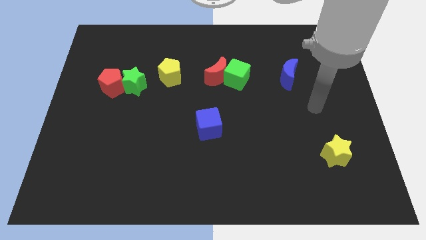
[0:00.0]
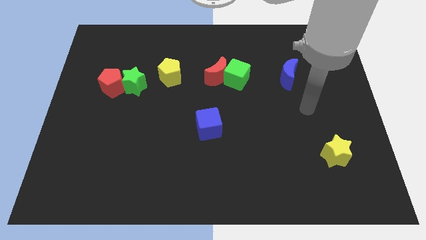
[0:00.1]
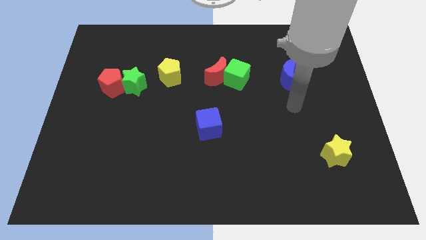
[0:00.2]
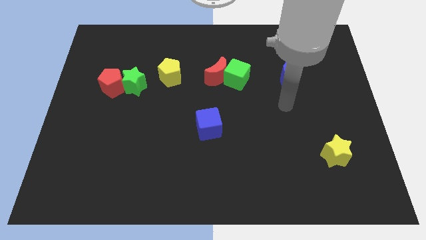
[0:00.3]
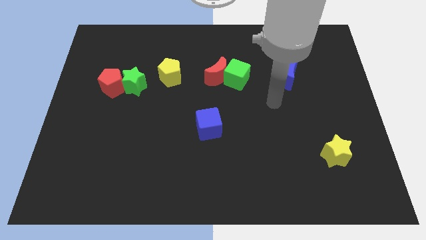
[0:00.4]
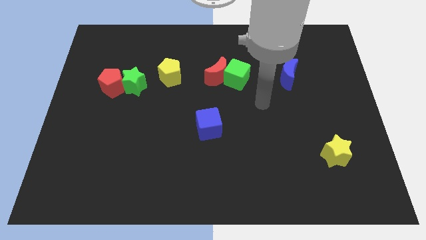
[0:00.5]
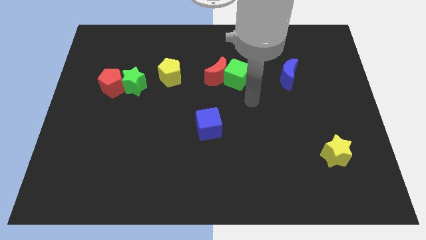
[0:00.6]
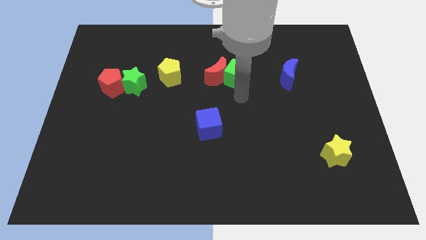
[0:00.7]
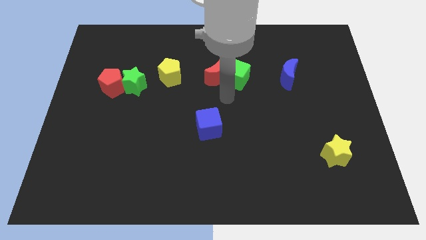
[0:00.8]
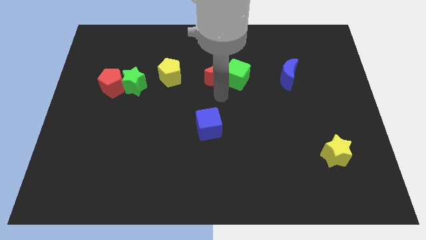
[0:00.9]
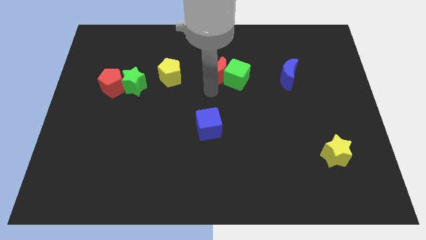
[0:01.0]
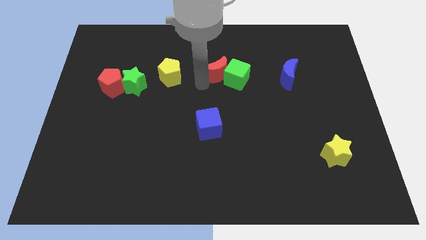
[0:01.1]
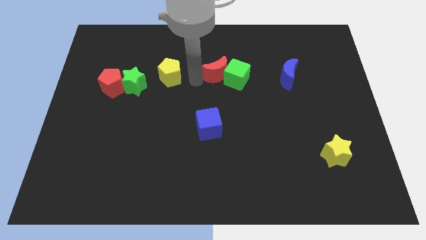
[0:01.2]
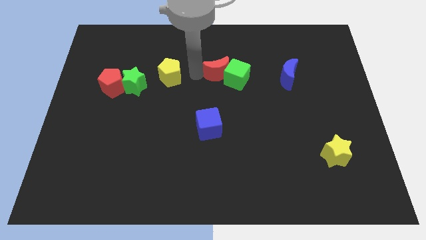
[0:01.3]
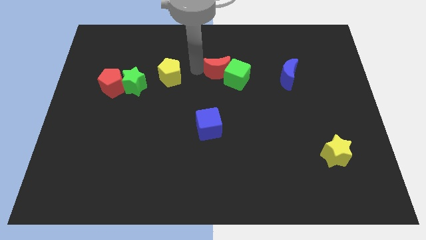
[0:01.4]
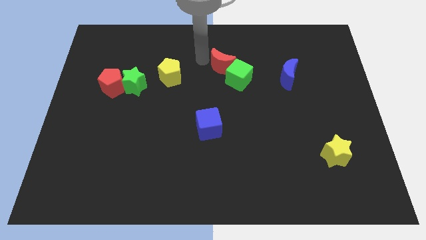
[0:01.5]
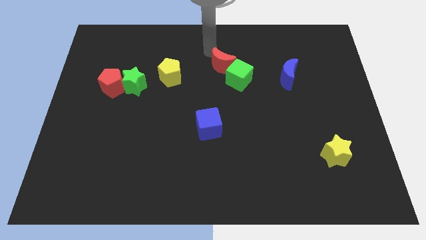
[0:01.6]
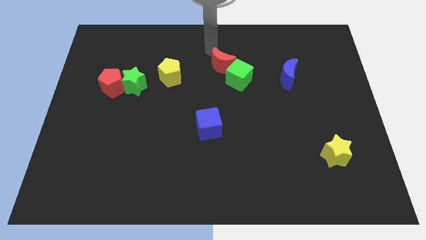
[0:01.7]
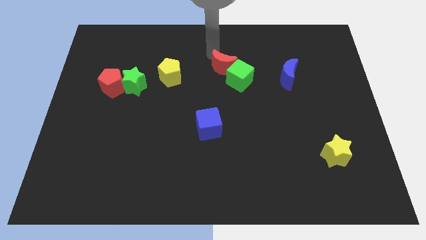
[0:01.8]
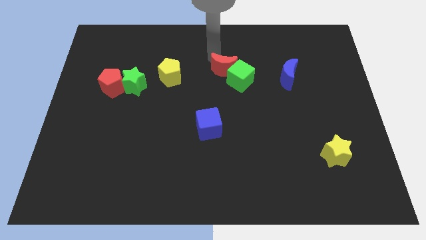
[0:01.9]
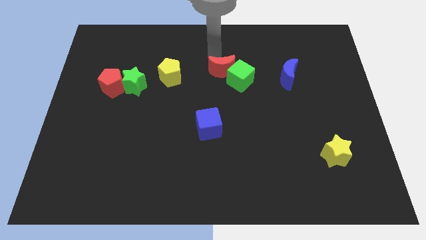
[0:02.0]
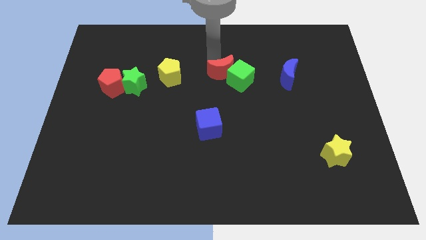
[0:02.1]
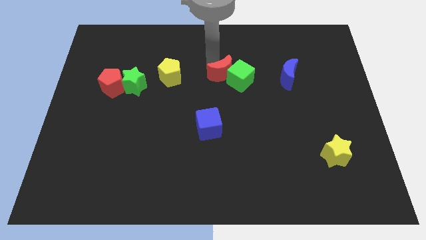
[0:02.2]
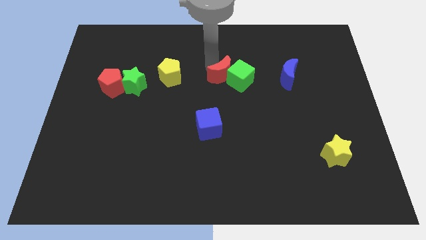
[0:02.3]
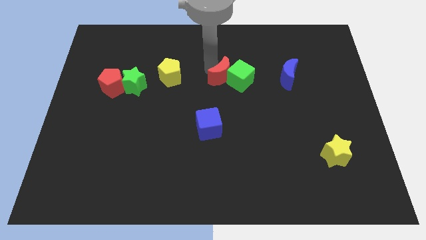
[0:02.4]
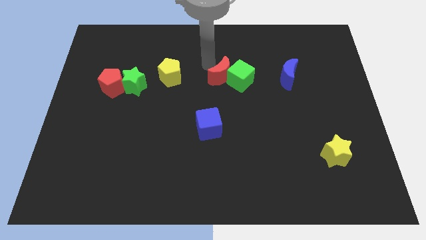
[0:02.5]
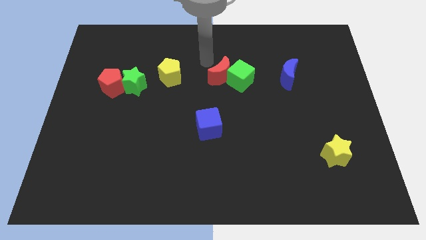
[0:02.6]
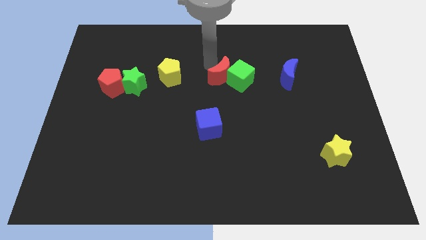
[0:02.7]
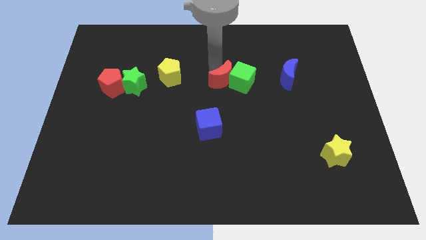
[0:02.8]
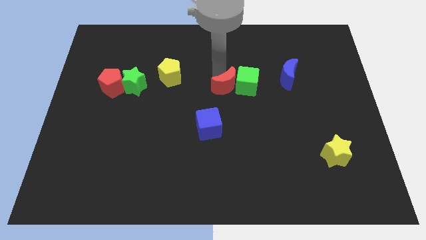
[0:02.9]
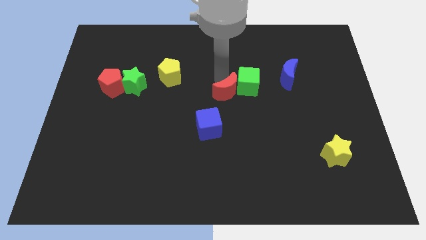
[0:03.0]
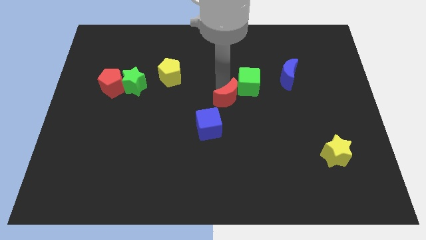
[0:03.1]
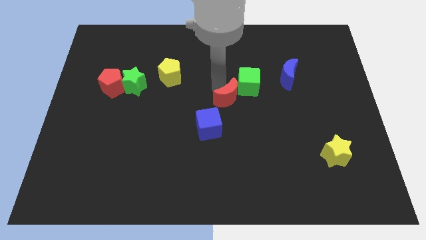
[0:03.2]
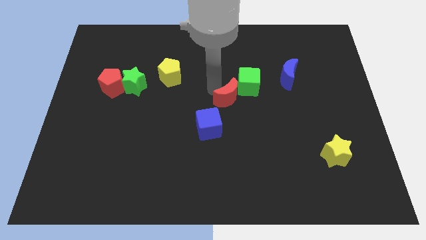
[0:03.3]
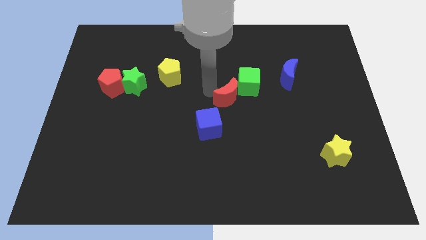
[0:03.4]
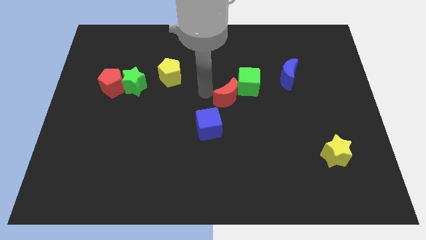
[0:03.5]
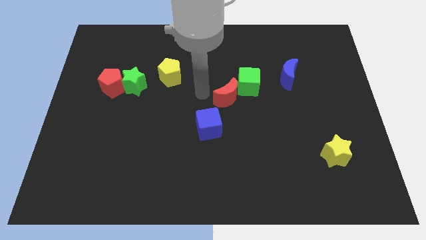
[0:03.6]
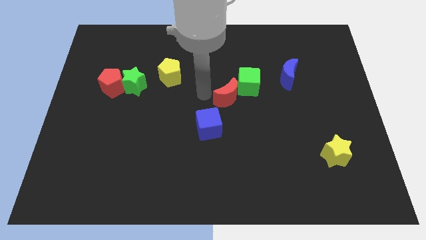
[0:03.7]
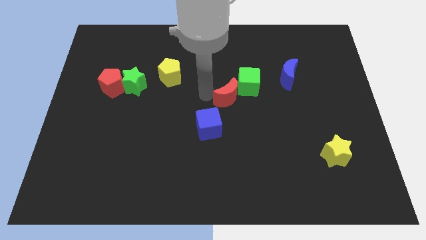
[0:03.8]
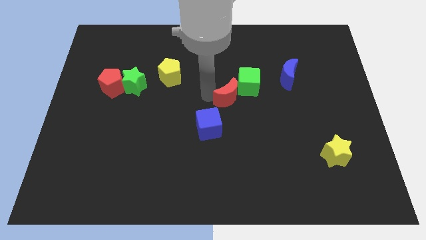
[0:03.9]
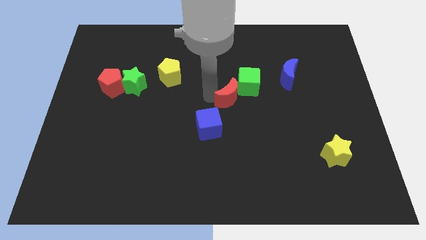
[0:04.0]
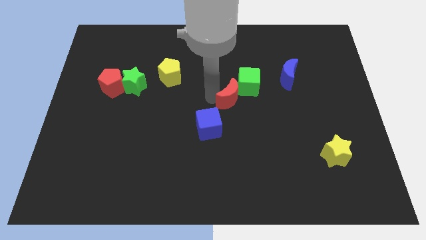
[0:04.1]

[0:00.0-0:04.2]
slide the red moon down and then to the right somewhat

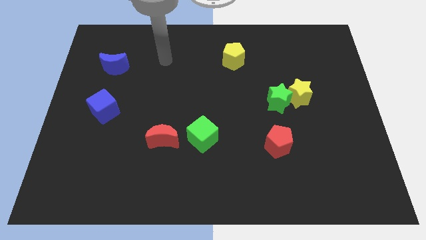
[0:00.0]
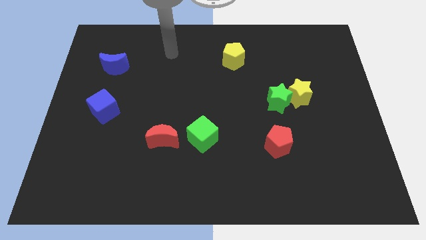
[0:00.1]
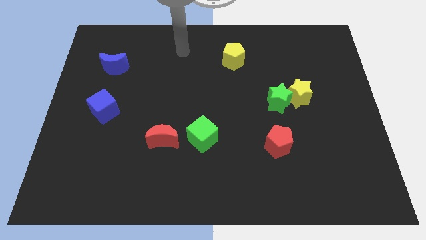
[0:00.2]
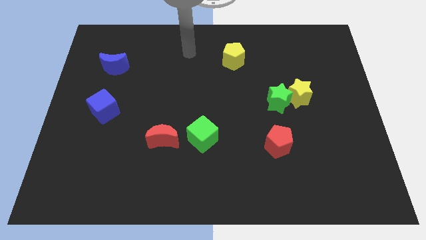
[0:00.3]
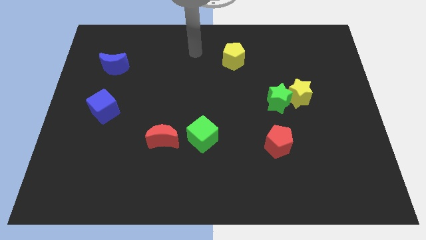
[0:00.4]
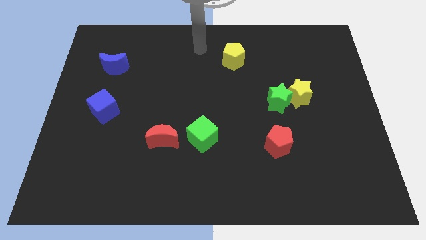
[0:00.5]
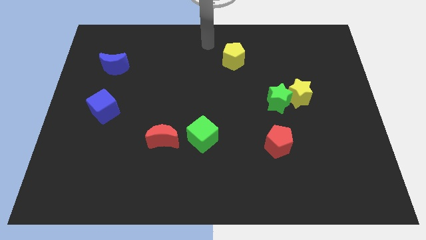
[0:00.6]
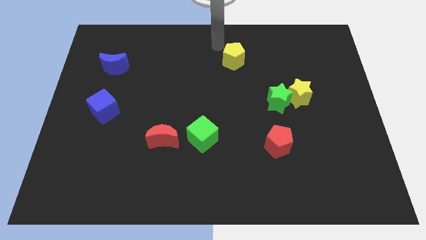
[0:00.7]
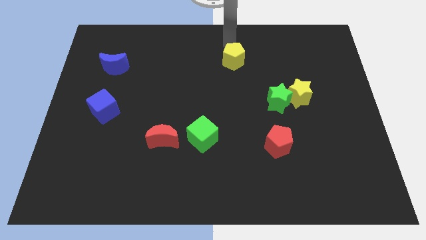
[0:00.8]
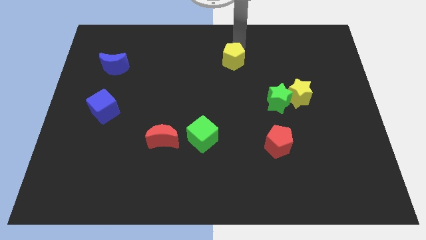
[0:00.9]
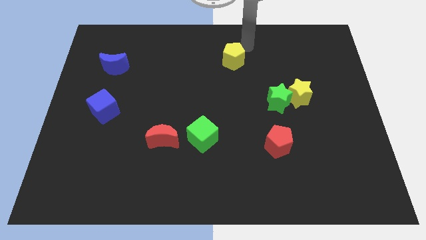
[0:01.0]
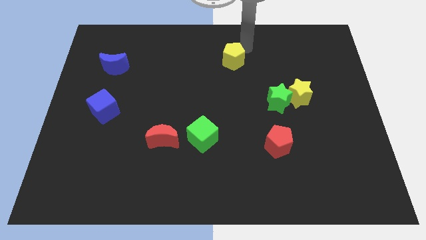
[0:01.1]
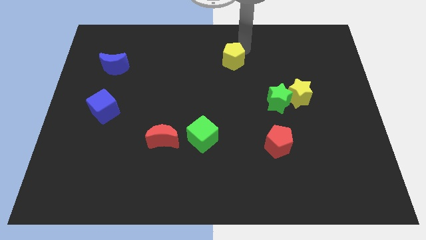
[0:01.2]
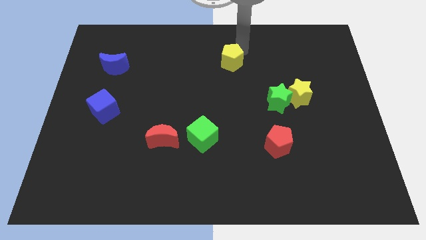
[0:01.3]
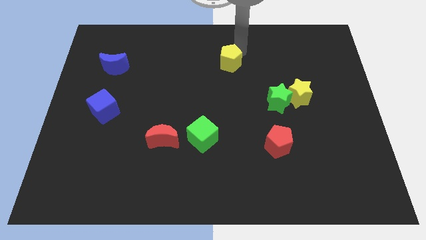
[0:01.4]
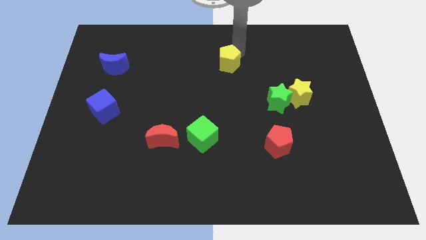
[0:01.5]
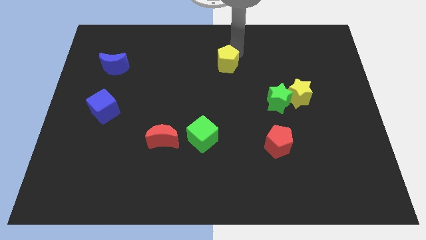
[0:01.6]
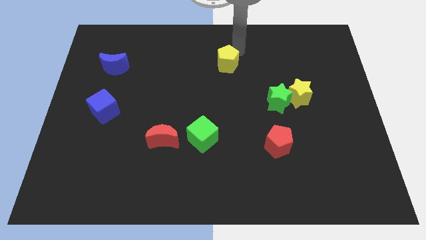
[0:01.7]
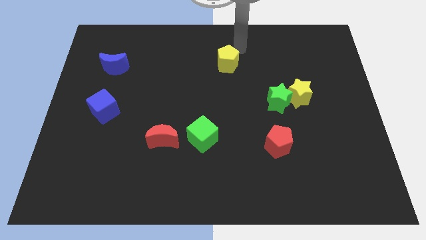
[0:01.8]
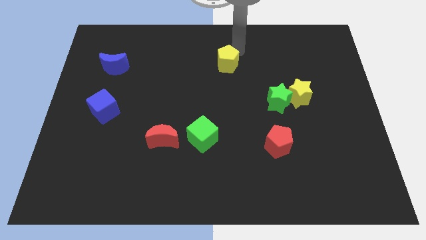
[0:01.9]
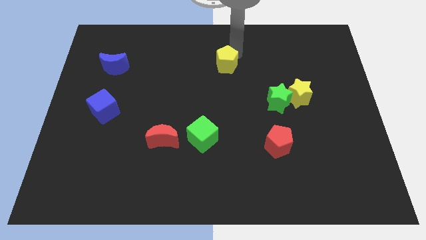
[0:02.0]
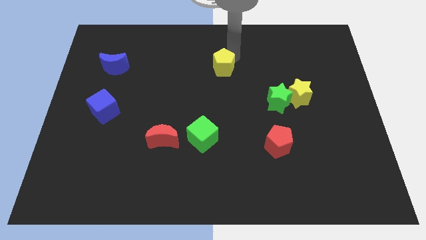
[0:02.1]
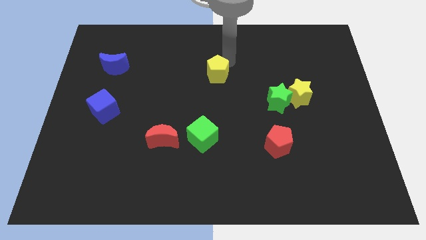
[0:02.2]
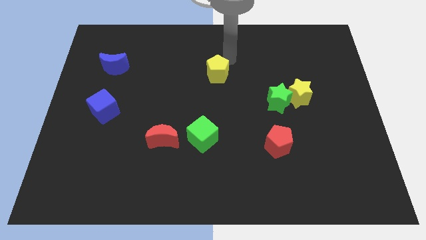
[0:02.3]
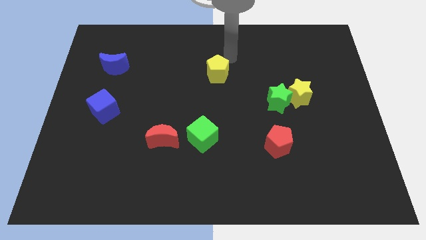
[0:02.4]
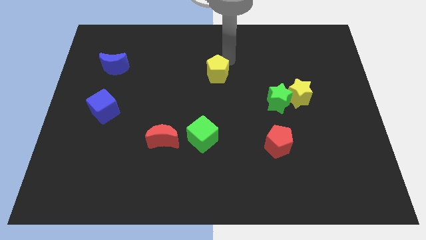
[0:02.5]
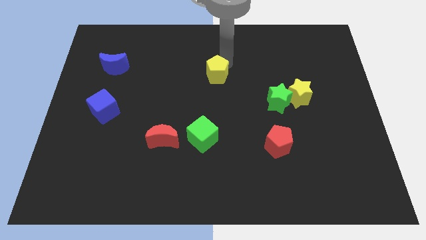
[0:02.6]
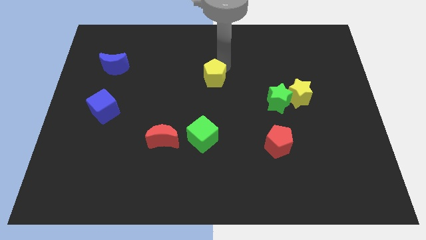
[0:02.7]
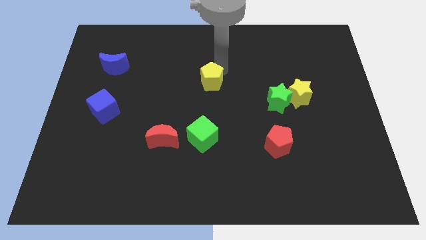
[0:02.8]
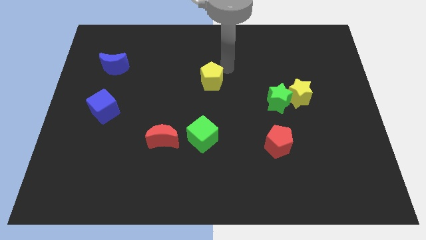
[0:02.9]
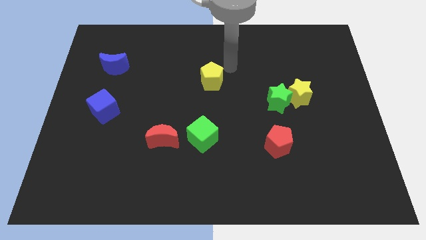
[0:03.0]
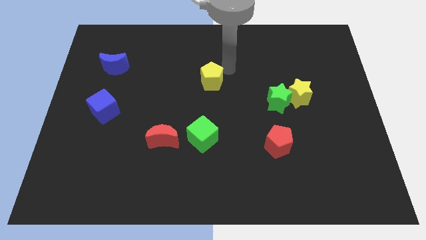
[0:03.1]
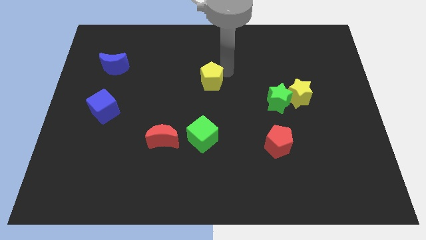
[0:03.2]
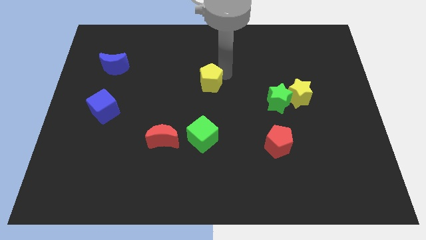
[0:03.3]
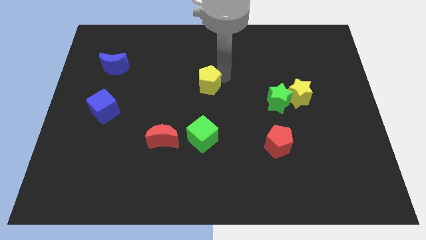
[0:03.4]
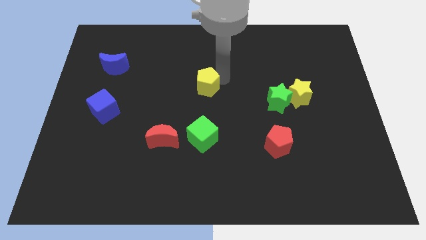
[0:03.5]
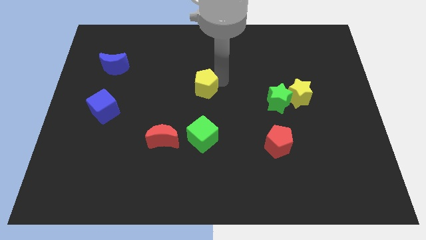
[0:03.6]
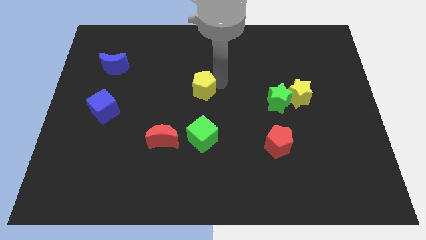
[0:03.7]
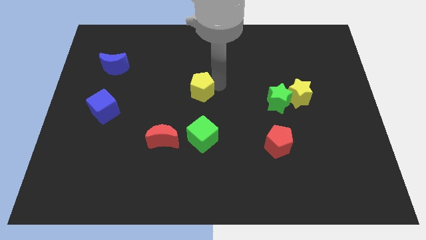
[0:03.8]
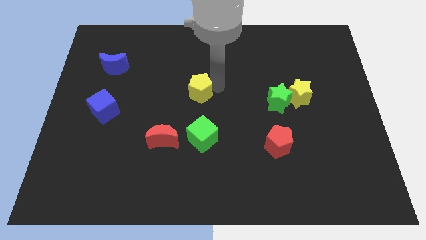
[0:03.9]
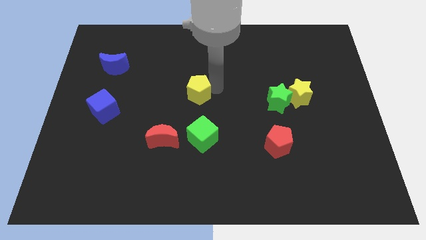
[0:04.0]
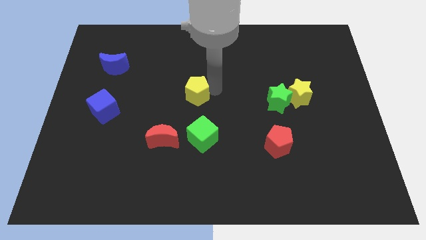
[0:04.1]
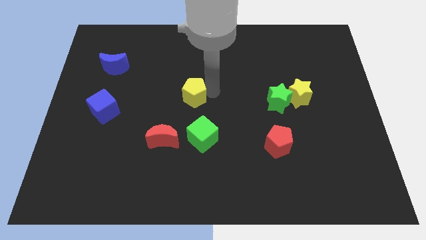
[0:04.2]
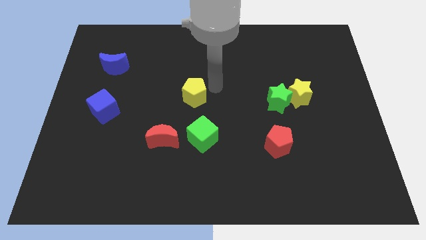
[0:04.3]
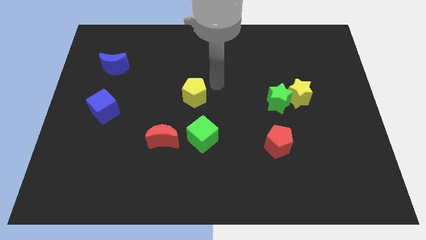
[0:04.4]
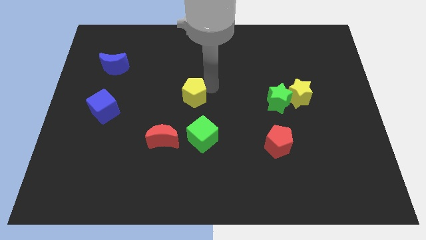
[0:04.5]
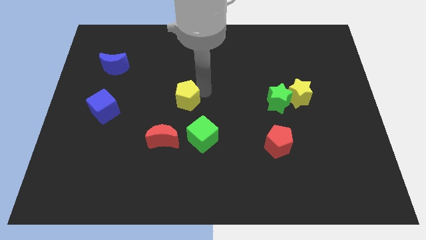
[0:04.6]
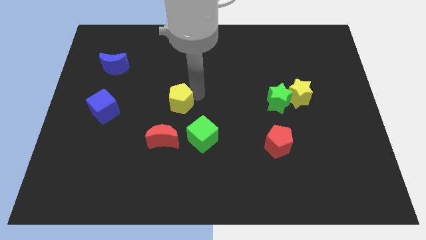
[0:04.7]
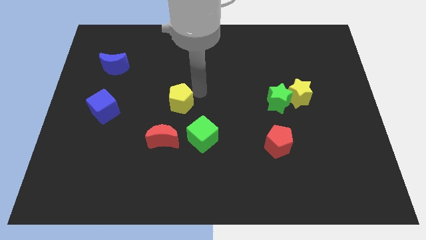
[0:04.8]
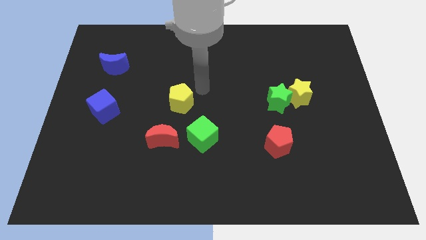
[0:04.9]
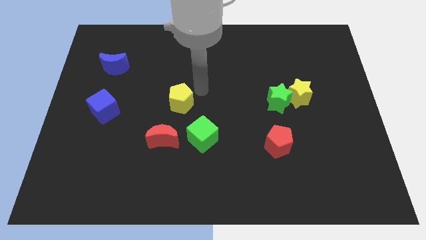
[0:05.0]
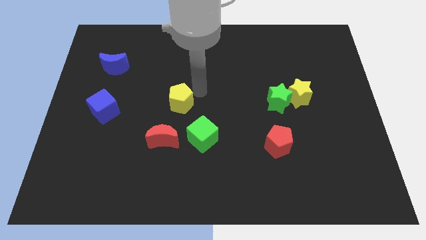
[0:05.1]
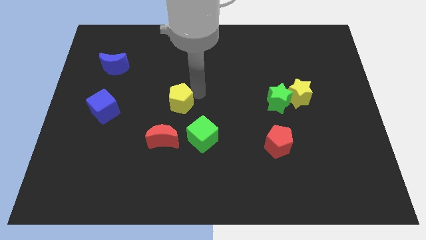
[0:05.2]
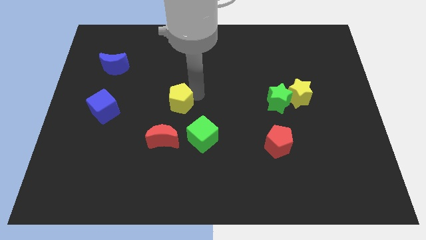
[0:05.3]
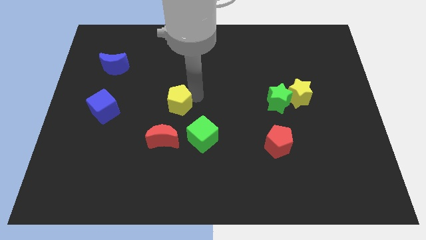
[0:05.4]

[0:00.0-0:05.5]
slide the yellow pentagon downwards and to the left
